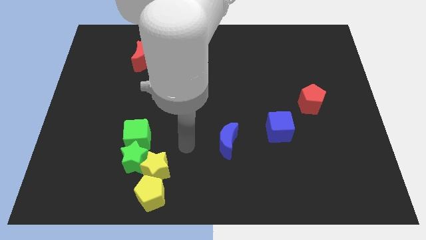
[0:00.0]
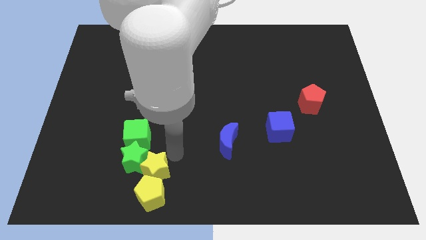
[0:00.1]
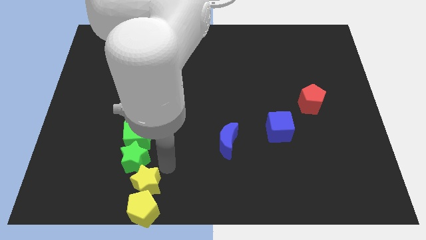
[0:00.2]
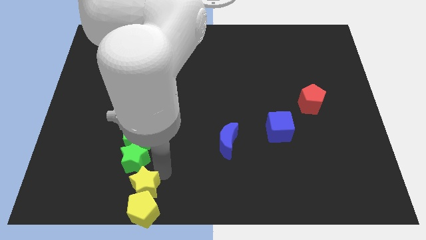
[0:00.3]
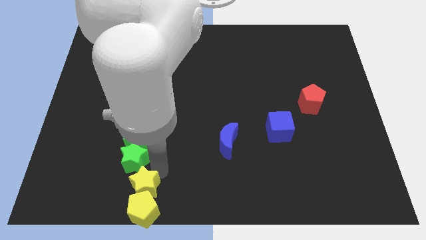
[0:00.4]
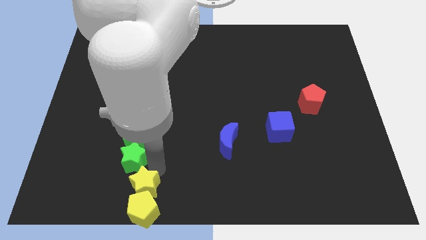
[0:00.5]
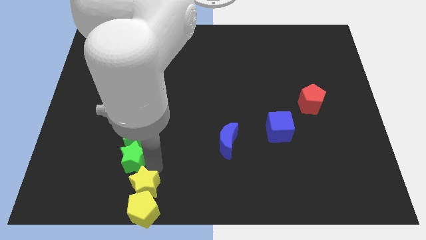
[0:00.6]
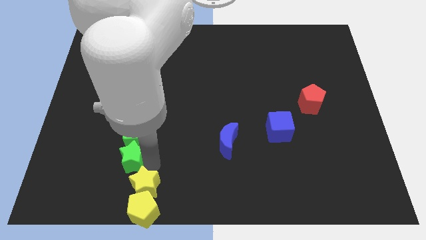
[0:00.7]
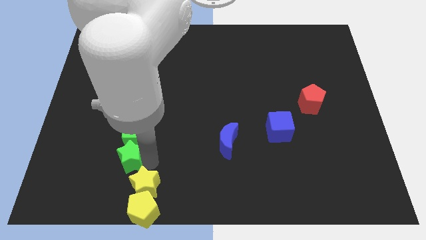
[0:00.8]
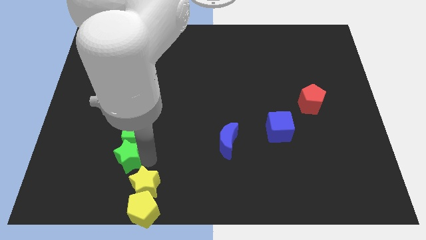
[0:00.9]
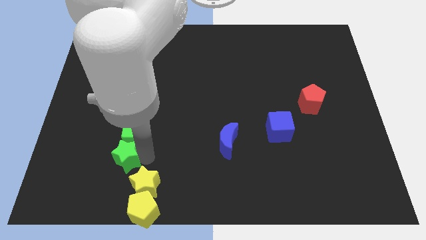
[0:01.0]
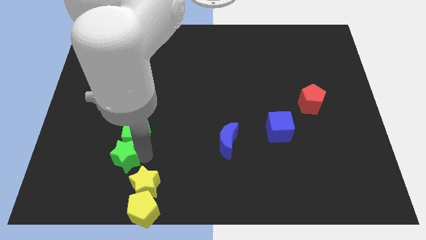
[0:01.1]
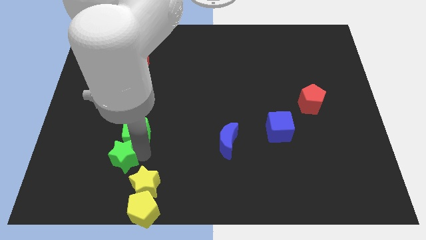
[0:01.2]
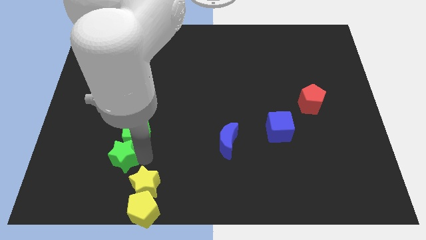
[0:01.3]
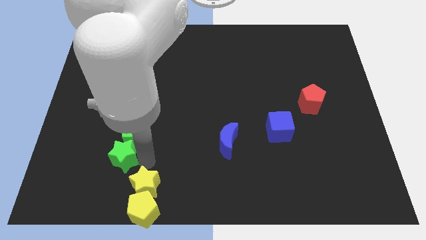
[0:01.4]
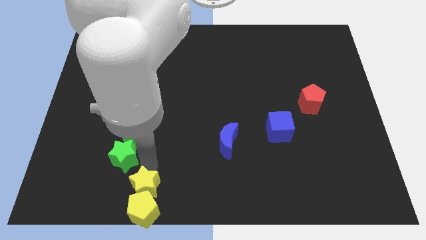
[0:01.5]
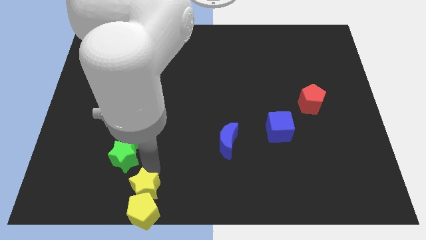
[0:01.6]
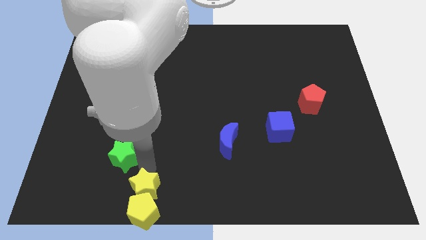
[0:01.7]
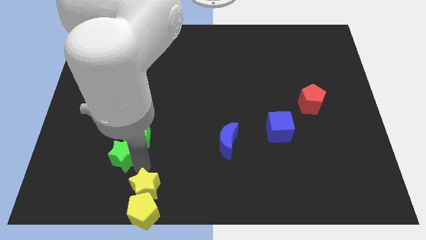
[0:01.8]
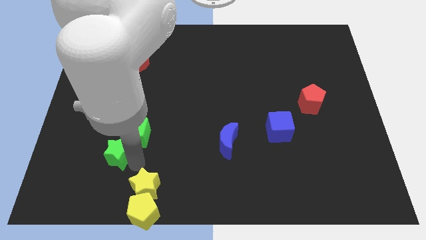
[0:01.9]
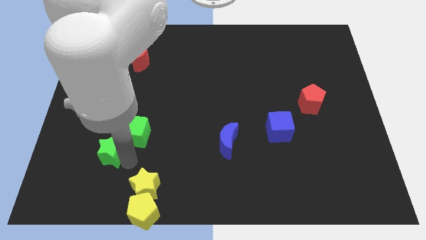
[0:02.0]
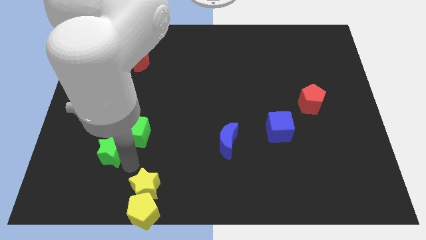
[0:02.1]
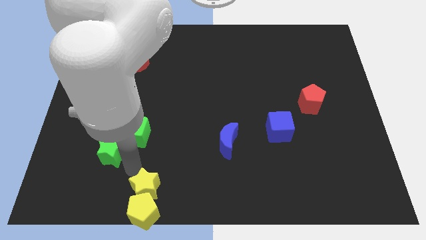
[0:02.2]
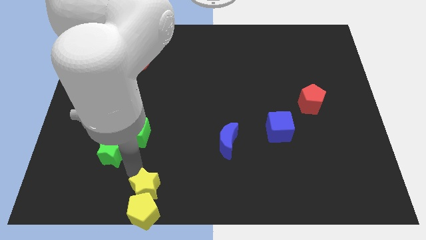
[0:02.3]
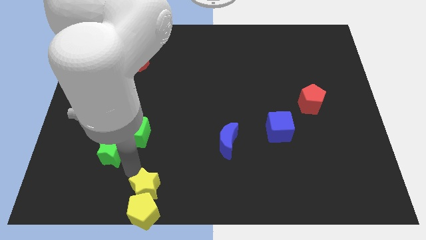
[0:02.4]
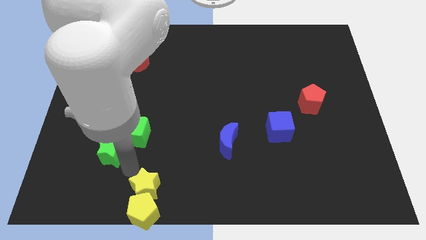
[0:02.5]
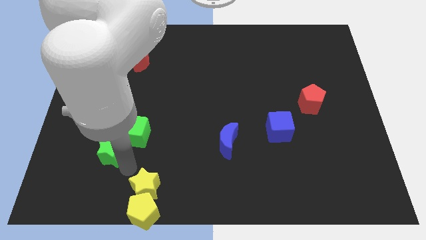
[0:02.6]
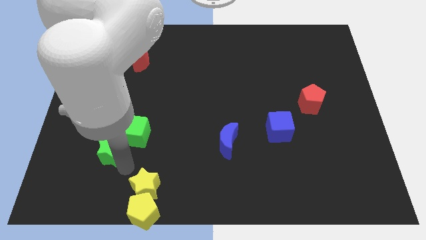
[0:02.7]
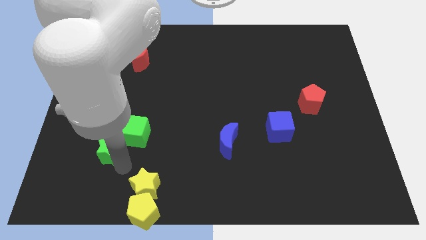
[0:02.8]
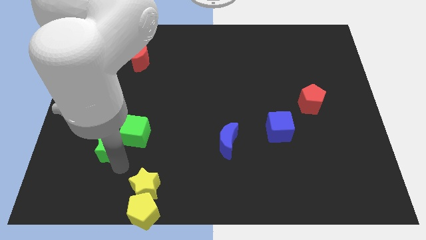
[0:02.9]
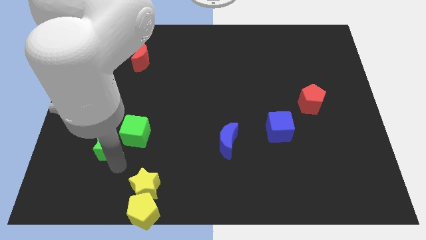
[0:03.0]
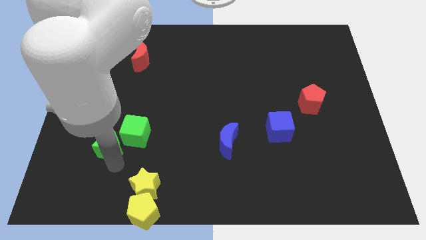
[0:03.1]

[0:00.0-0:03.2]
move the green star away from the yellow star, green cube, and yellow pentagon

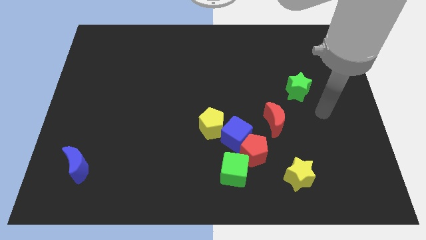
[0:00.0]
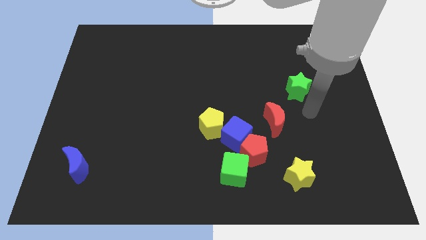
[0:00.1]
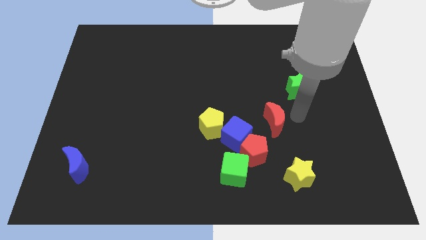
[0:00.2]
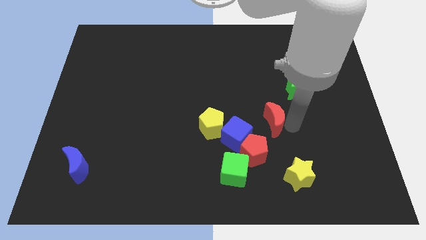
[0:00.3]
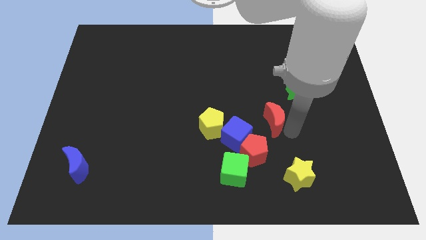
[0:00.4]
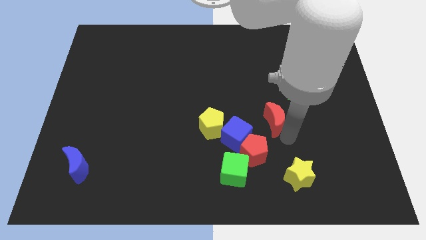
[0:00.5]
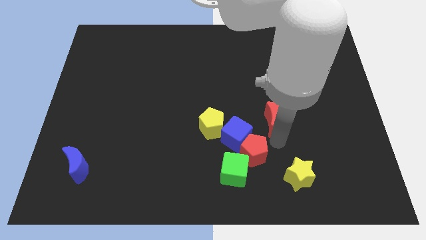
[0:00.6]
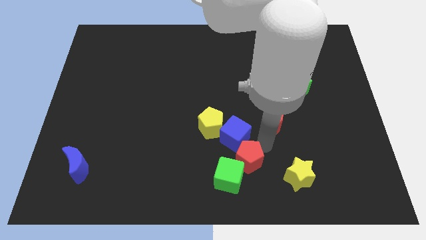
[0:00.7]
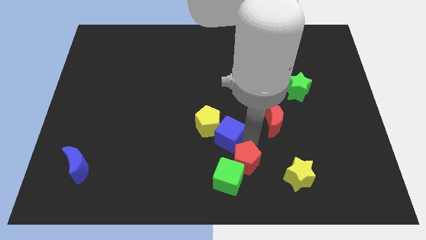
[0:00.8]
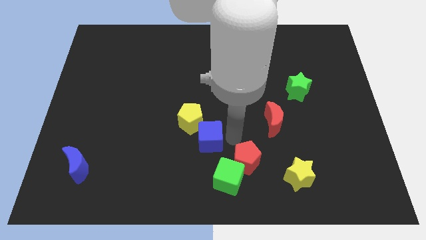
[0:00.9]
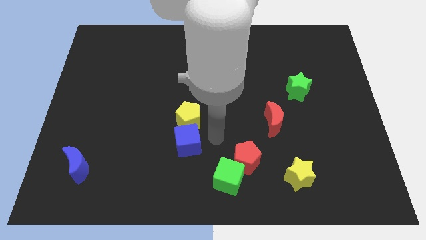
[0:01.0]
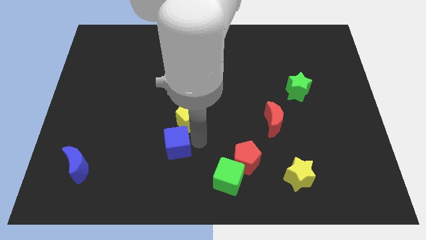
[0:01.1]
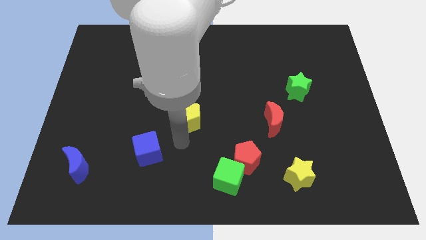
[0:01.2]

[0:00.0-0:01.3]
pull the yellow pentagon apart from the blue cube

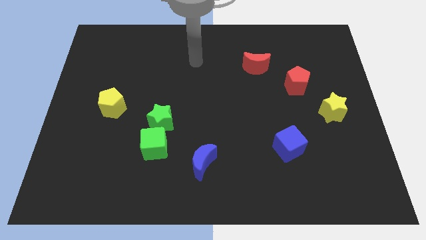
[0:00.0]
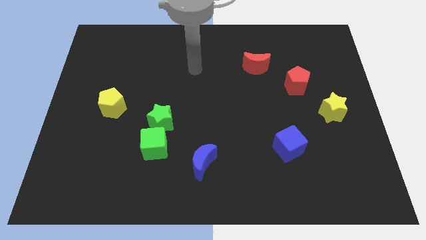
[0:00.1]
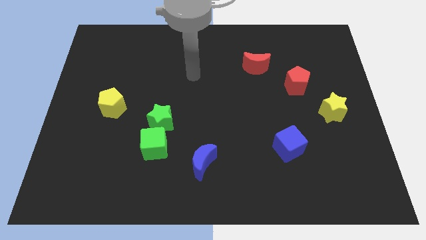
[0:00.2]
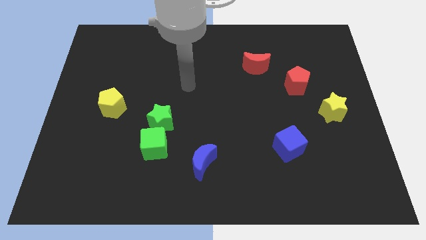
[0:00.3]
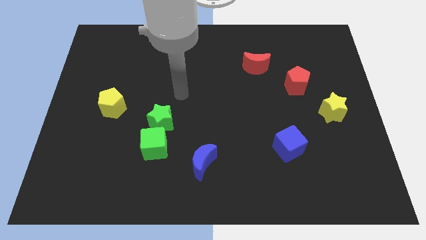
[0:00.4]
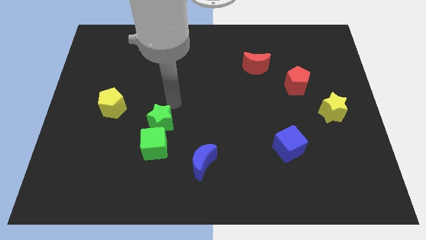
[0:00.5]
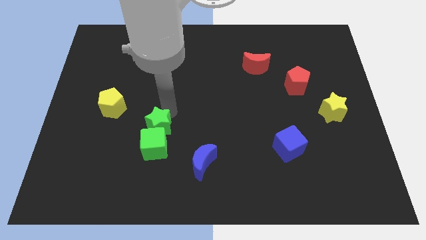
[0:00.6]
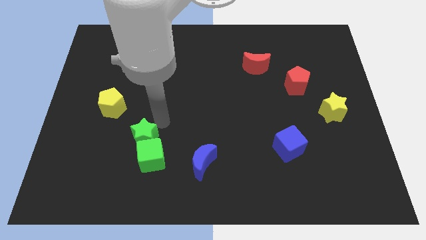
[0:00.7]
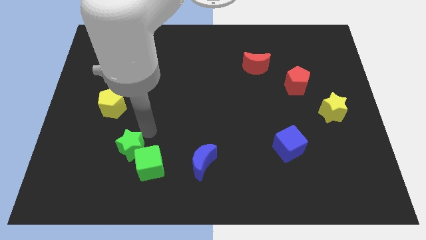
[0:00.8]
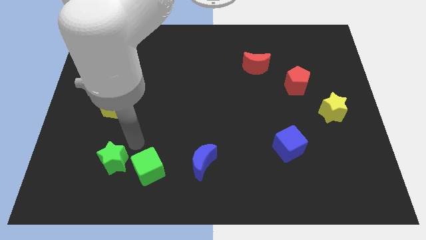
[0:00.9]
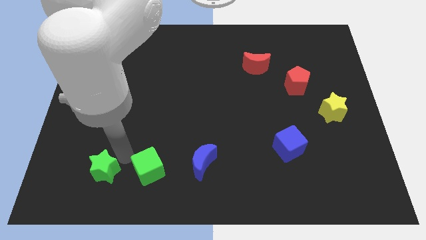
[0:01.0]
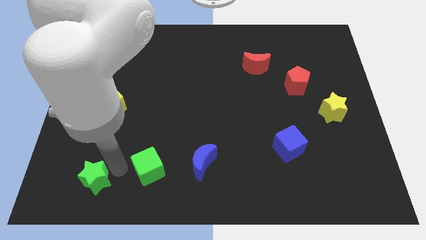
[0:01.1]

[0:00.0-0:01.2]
pull the green cube apart from the green star

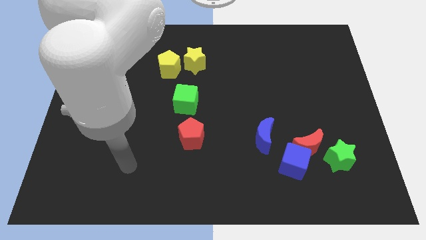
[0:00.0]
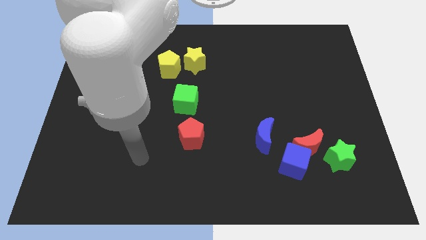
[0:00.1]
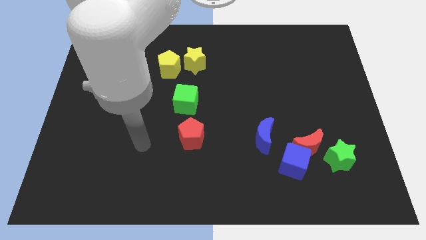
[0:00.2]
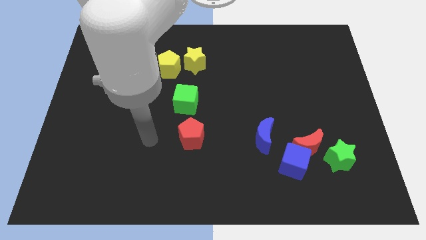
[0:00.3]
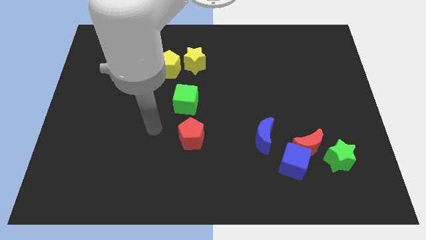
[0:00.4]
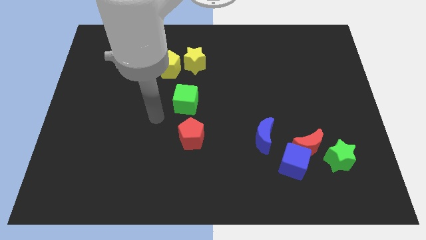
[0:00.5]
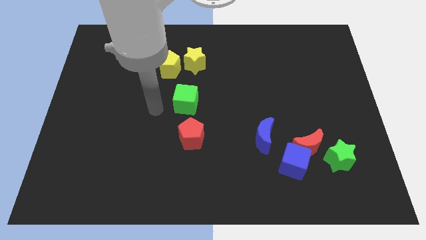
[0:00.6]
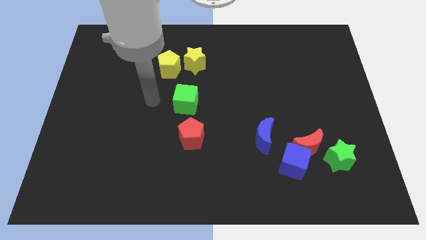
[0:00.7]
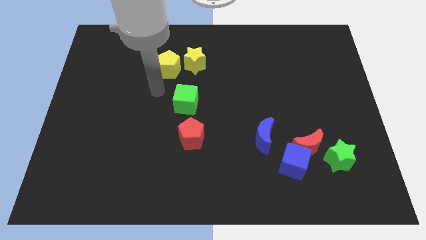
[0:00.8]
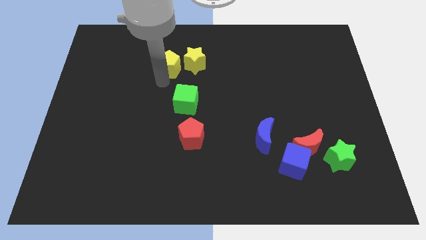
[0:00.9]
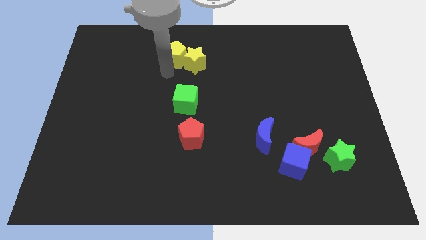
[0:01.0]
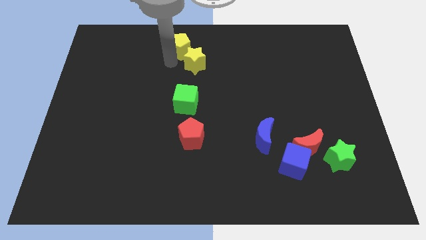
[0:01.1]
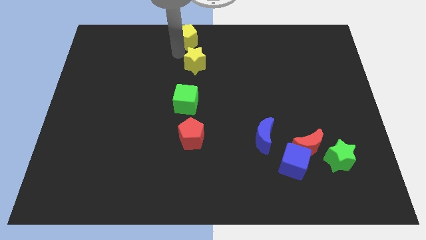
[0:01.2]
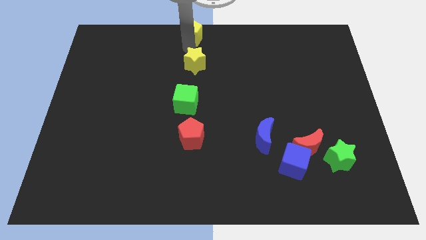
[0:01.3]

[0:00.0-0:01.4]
pull the yellow star apart from the yellow pentagon

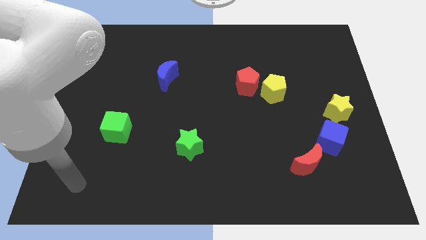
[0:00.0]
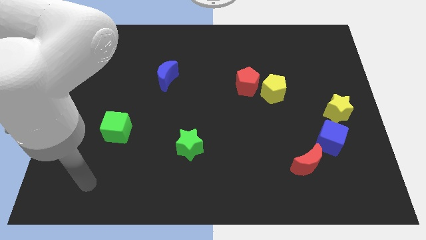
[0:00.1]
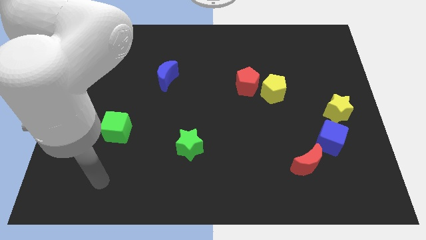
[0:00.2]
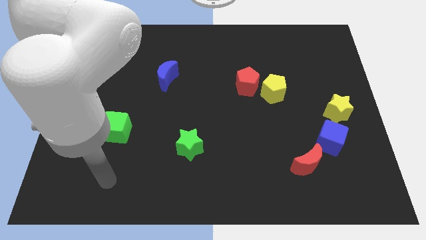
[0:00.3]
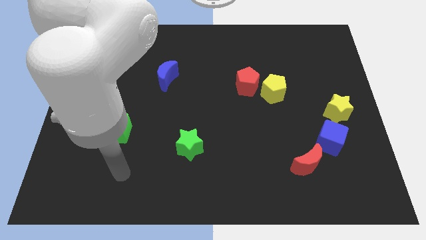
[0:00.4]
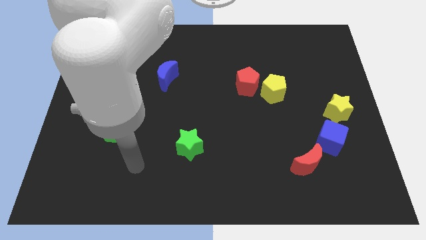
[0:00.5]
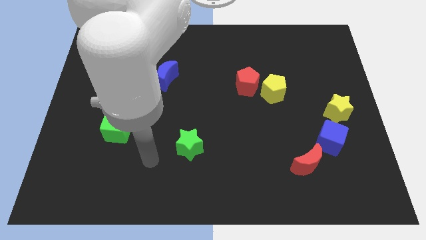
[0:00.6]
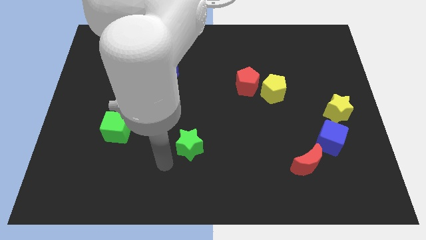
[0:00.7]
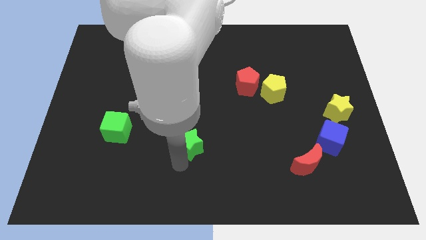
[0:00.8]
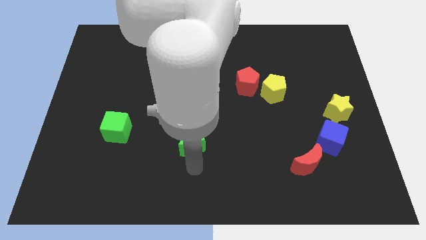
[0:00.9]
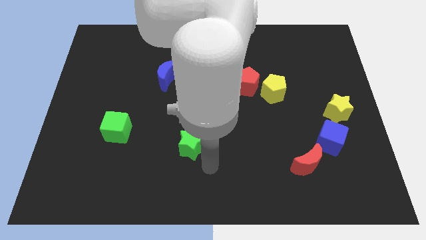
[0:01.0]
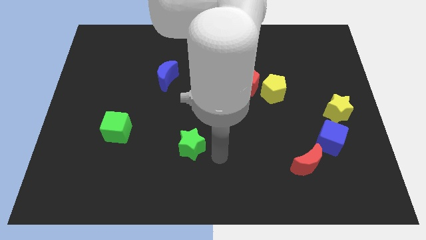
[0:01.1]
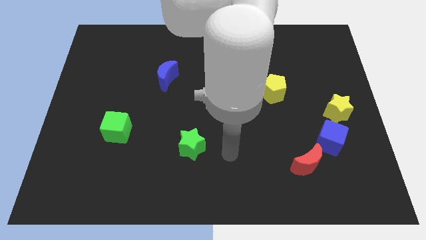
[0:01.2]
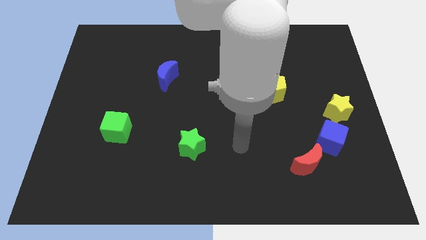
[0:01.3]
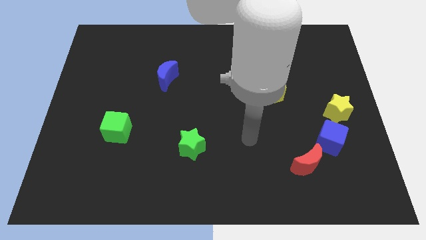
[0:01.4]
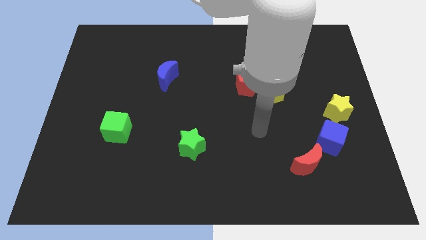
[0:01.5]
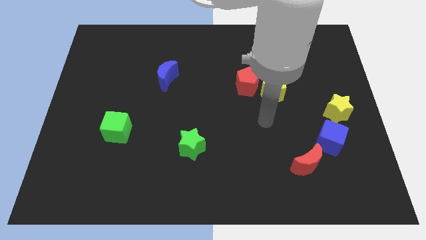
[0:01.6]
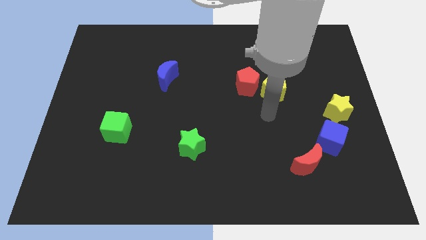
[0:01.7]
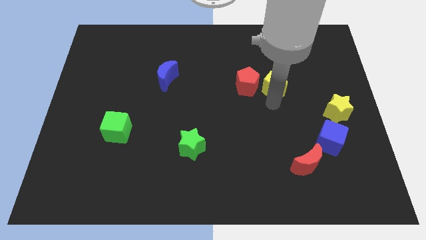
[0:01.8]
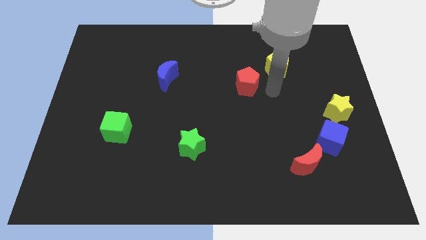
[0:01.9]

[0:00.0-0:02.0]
move the red pentagon away from the yellow pentagon

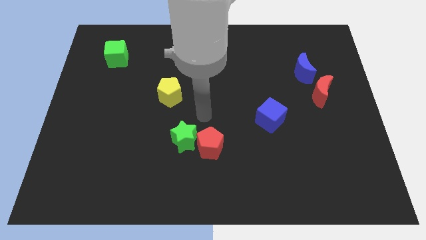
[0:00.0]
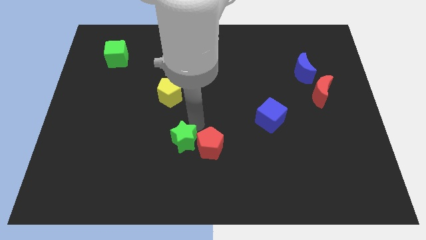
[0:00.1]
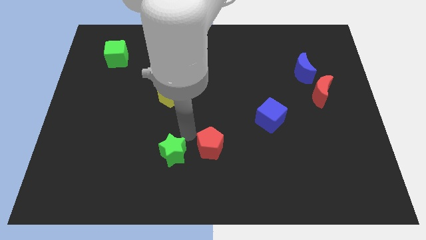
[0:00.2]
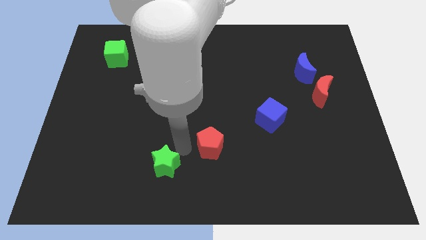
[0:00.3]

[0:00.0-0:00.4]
pull the red pentagon apart from the green star
